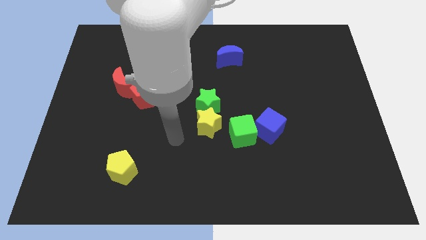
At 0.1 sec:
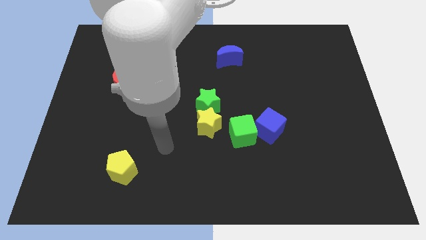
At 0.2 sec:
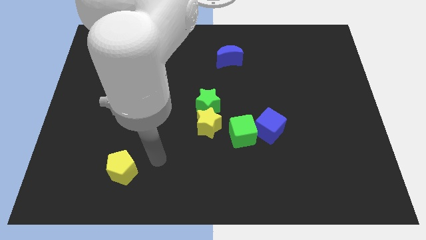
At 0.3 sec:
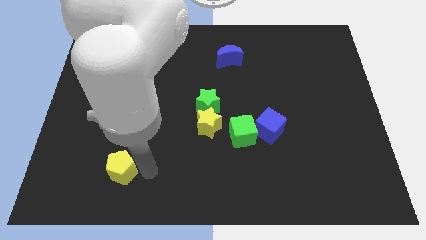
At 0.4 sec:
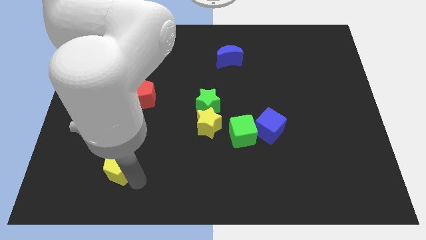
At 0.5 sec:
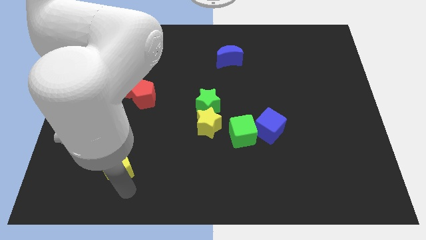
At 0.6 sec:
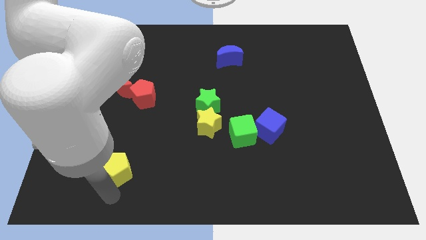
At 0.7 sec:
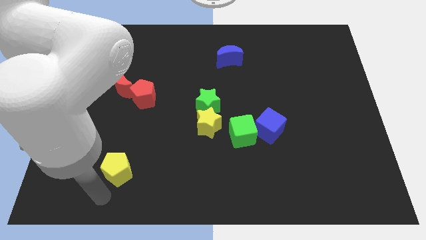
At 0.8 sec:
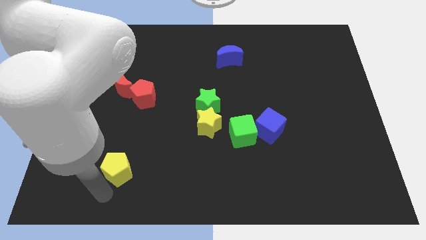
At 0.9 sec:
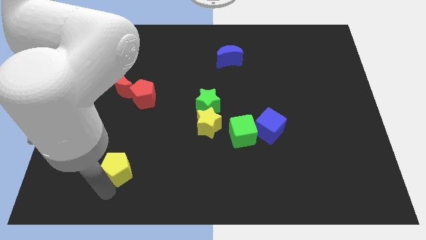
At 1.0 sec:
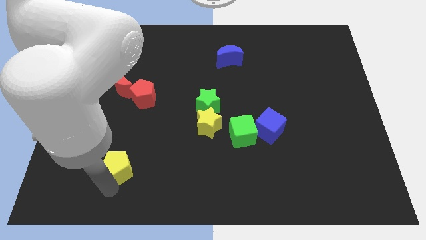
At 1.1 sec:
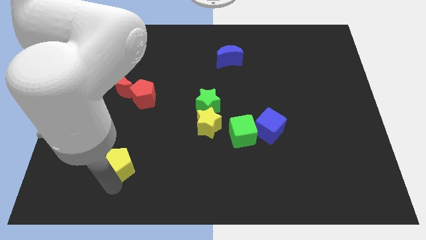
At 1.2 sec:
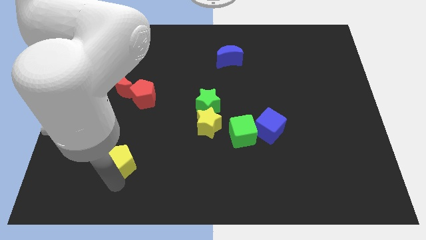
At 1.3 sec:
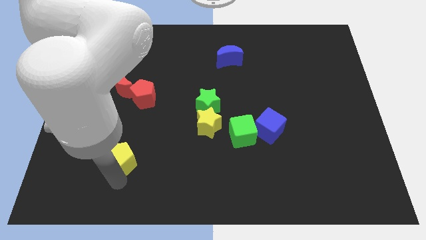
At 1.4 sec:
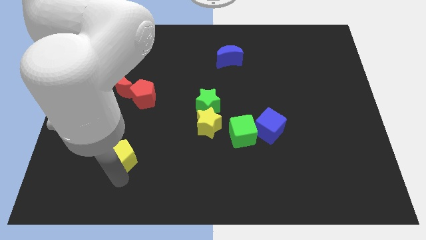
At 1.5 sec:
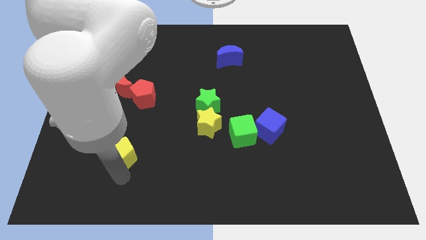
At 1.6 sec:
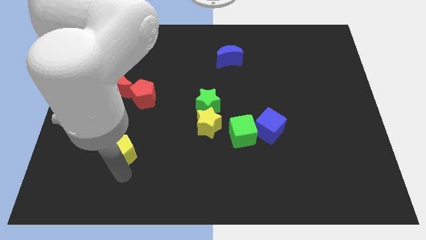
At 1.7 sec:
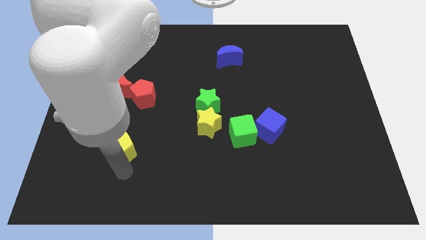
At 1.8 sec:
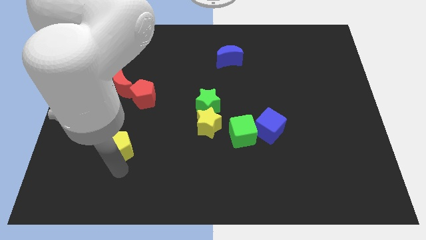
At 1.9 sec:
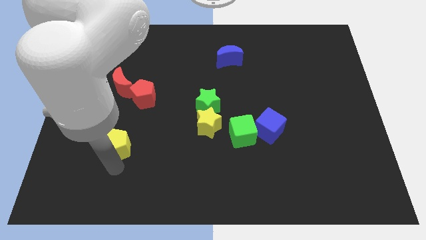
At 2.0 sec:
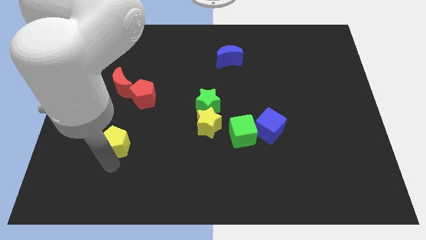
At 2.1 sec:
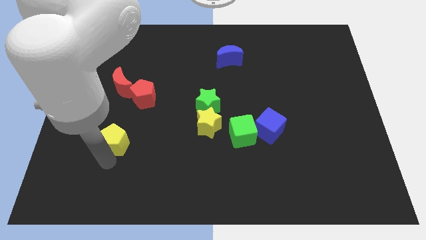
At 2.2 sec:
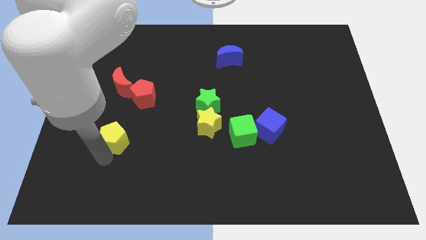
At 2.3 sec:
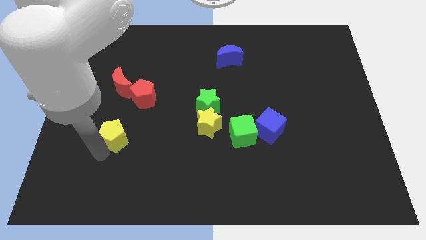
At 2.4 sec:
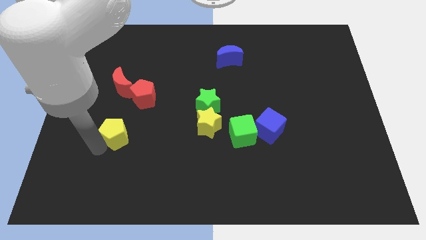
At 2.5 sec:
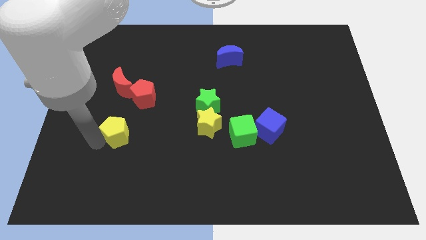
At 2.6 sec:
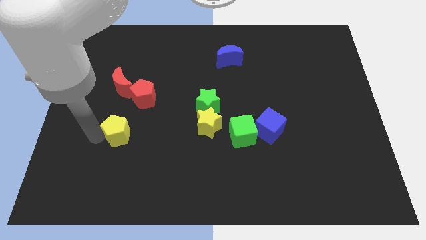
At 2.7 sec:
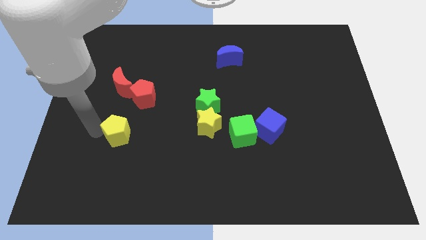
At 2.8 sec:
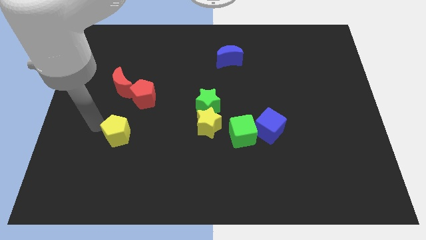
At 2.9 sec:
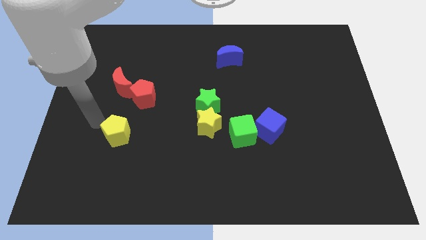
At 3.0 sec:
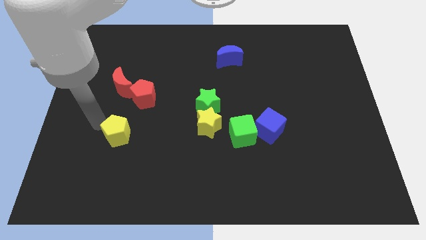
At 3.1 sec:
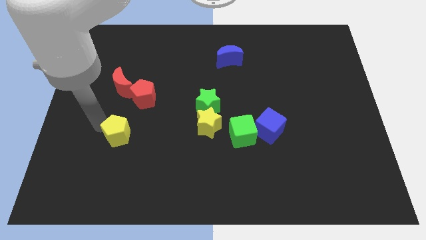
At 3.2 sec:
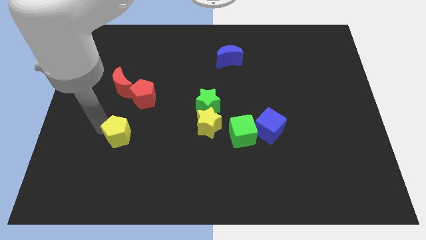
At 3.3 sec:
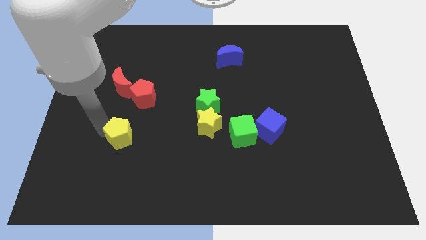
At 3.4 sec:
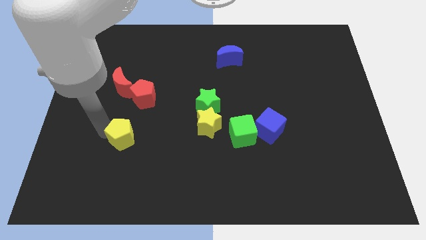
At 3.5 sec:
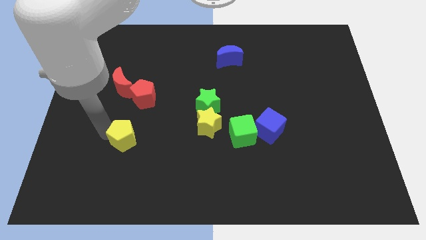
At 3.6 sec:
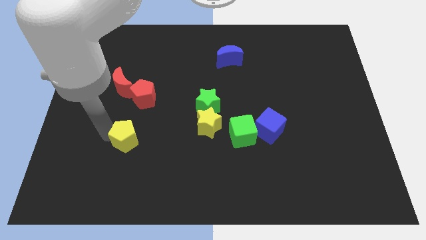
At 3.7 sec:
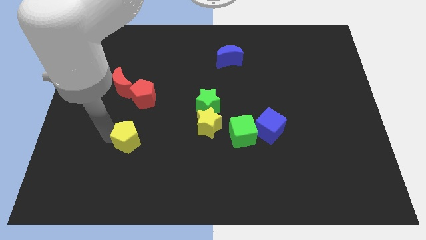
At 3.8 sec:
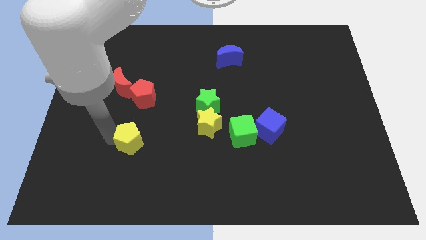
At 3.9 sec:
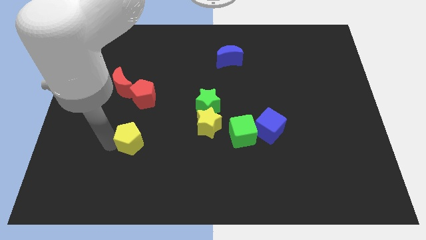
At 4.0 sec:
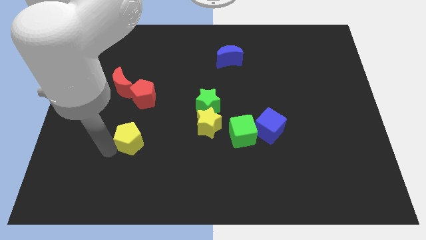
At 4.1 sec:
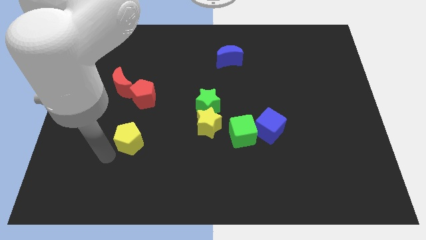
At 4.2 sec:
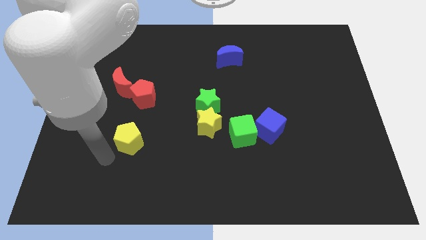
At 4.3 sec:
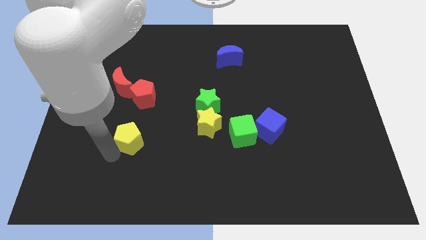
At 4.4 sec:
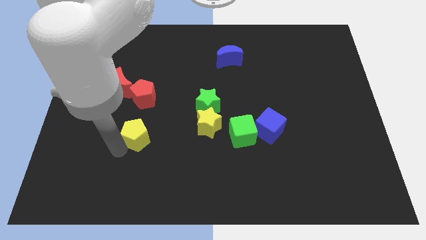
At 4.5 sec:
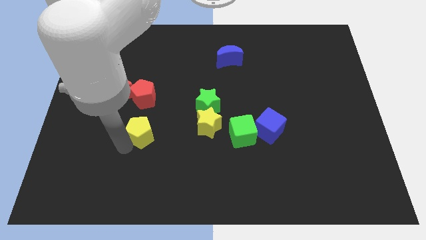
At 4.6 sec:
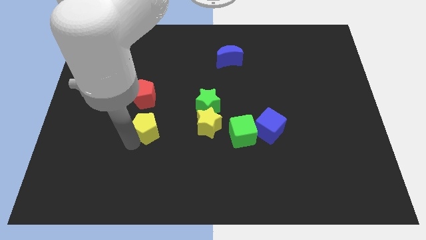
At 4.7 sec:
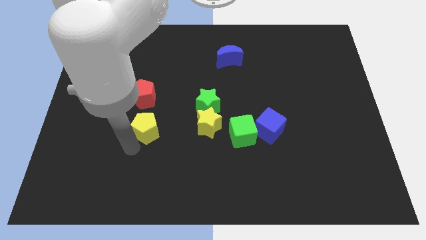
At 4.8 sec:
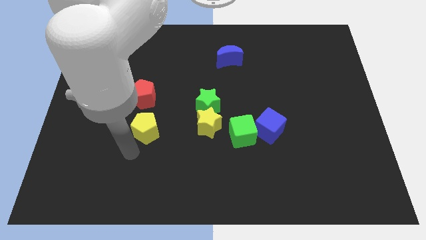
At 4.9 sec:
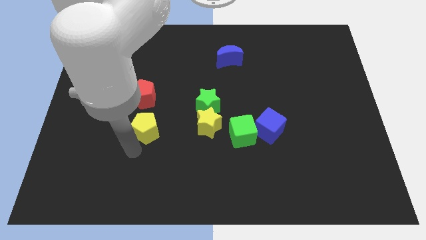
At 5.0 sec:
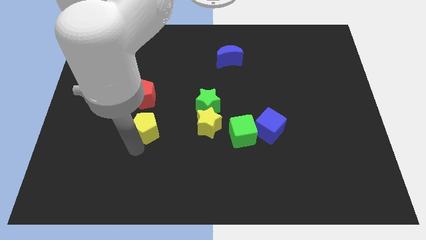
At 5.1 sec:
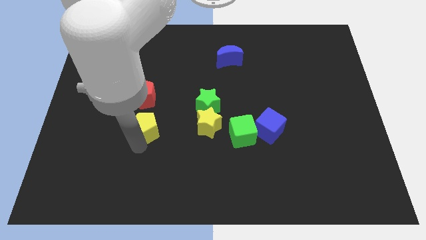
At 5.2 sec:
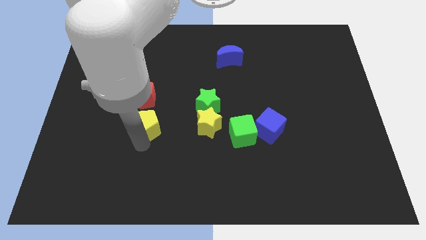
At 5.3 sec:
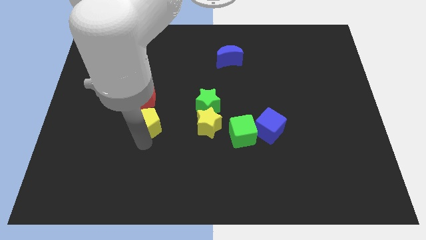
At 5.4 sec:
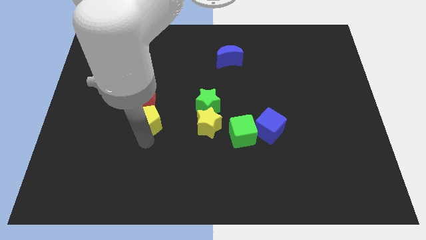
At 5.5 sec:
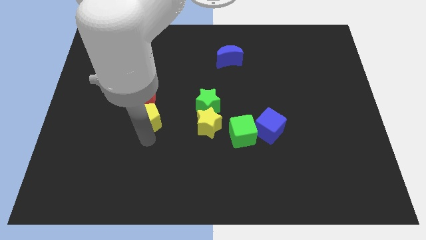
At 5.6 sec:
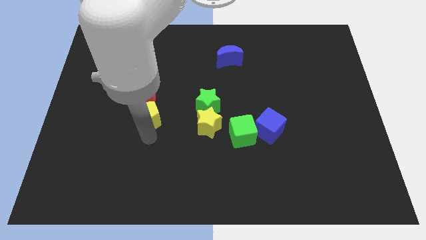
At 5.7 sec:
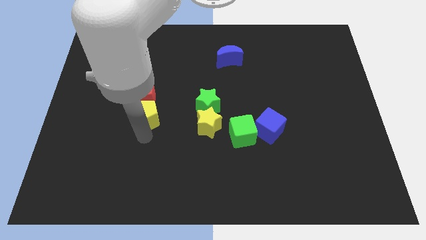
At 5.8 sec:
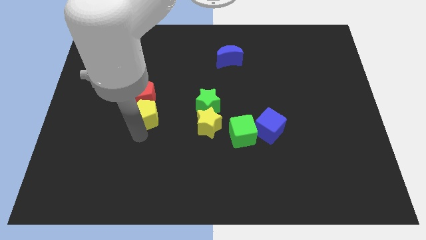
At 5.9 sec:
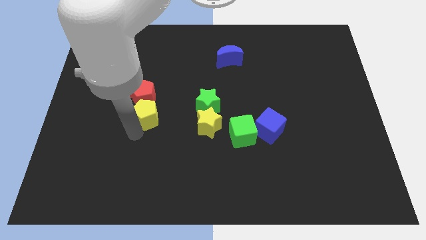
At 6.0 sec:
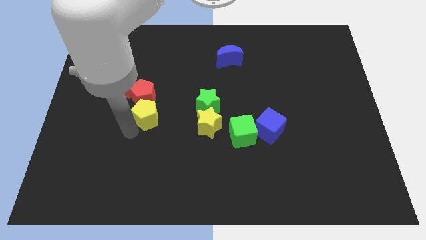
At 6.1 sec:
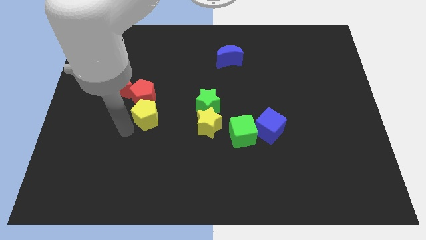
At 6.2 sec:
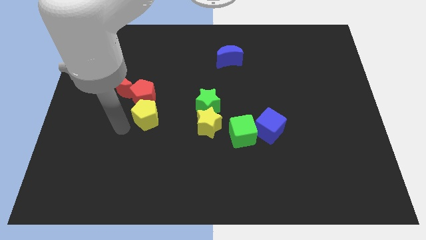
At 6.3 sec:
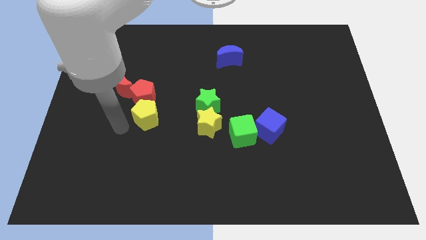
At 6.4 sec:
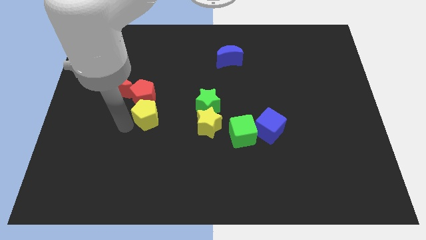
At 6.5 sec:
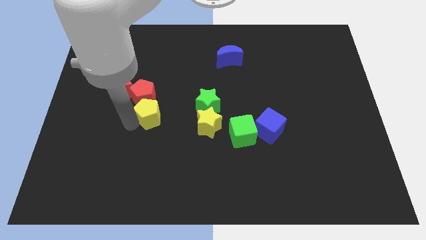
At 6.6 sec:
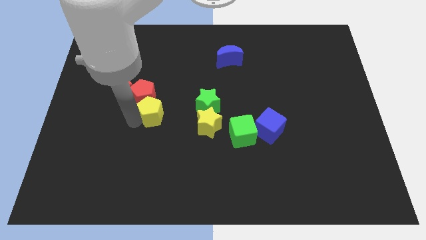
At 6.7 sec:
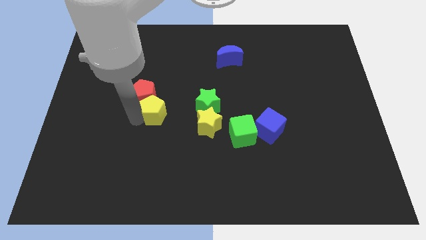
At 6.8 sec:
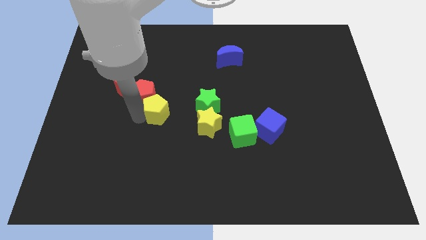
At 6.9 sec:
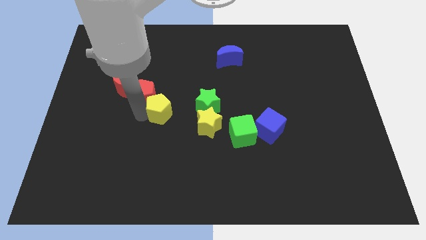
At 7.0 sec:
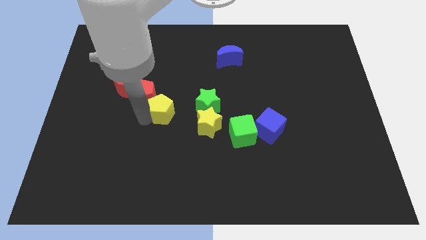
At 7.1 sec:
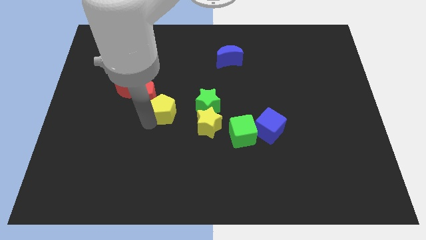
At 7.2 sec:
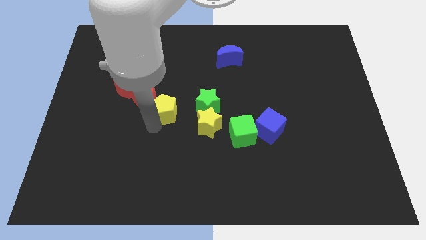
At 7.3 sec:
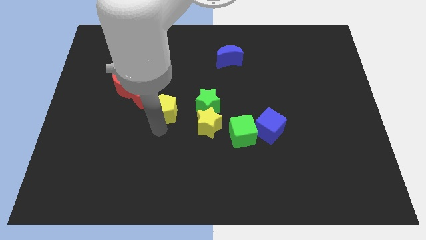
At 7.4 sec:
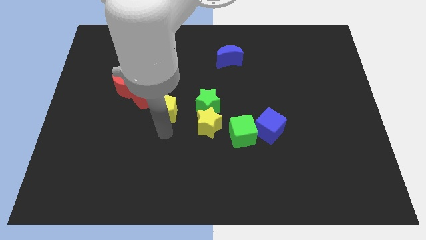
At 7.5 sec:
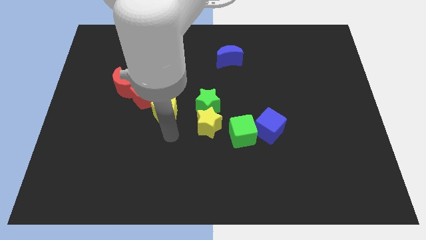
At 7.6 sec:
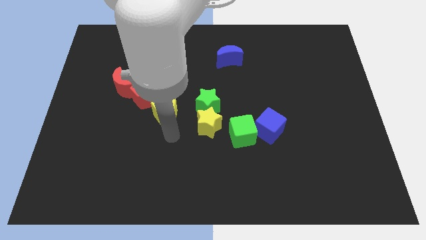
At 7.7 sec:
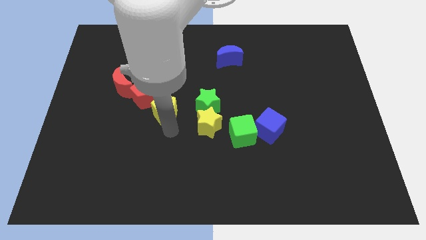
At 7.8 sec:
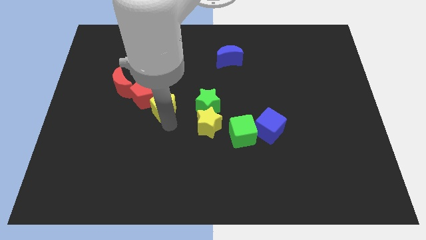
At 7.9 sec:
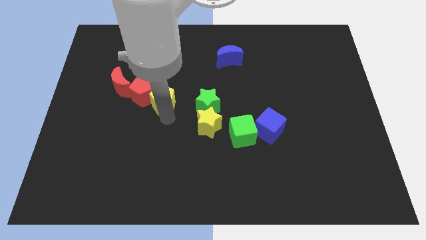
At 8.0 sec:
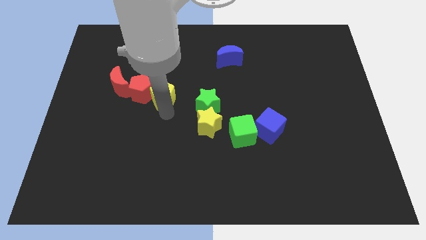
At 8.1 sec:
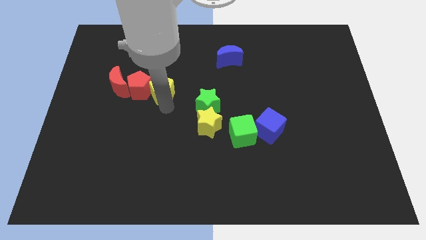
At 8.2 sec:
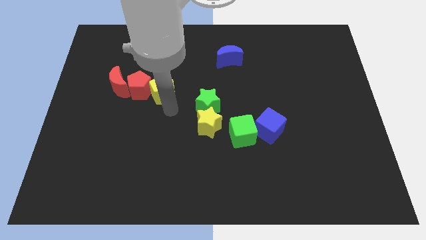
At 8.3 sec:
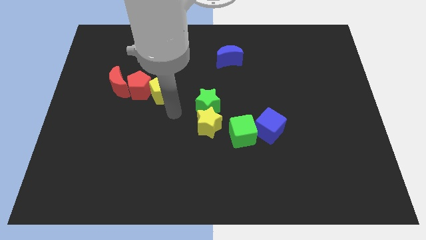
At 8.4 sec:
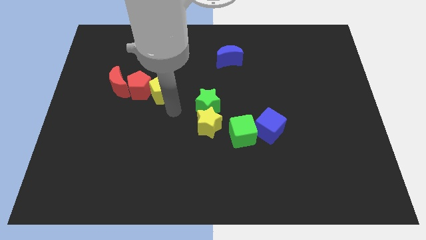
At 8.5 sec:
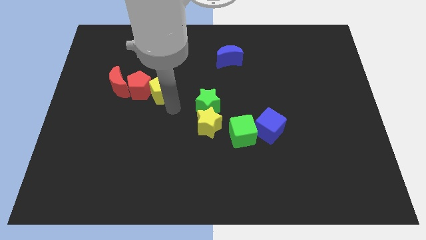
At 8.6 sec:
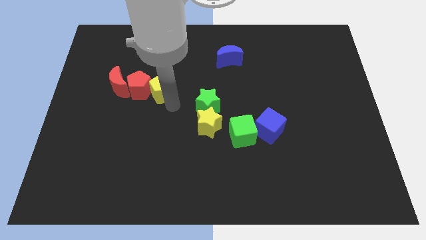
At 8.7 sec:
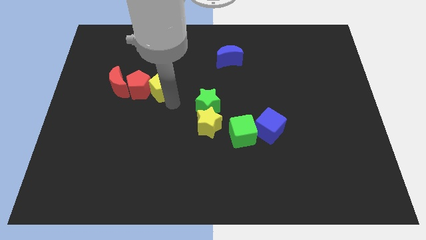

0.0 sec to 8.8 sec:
slide the yellow pentagon up
